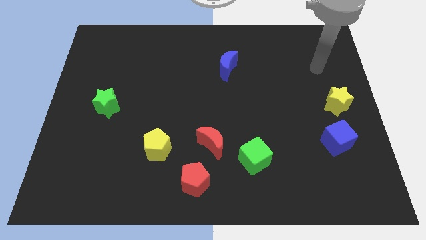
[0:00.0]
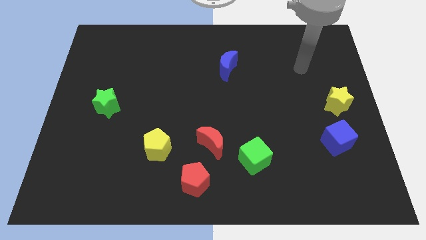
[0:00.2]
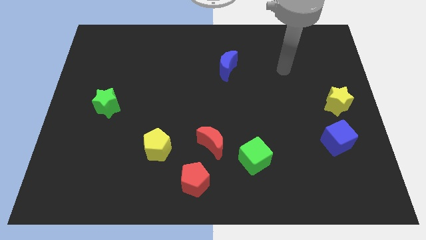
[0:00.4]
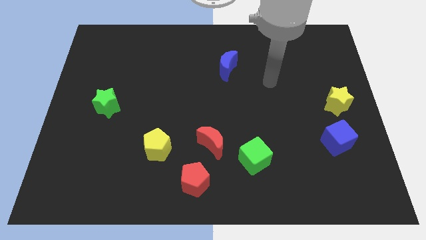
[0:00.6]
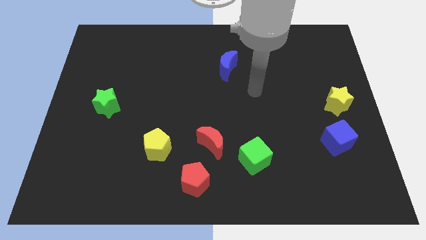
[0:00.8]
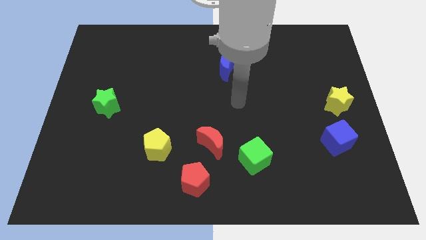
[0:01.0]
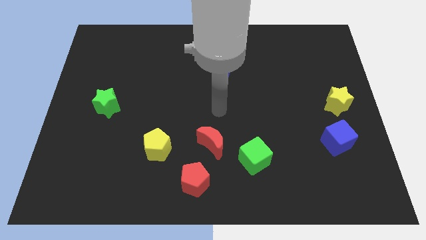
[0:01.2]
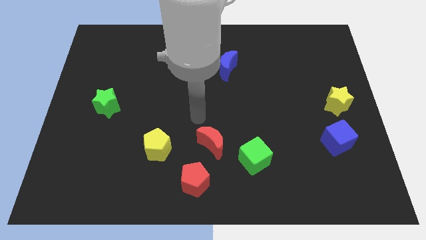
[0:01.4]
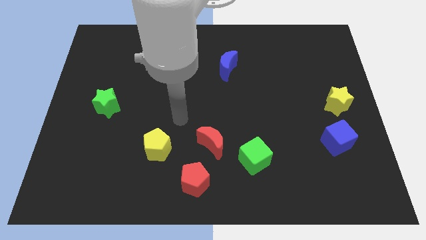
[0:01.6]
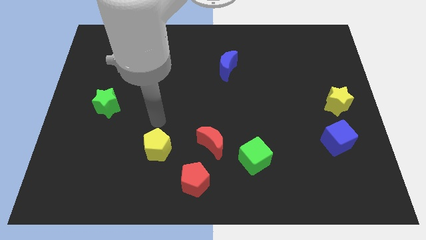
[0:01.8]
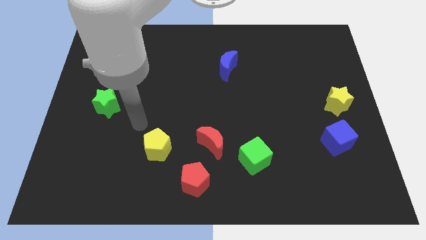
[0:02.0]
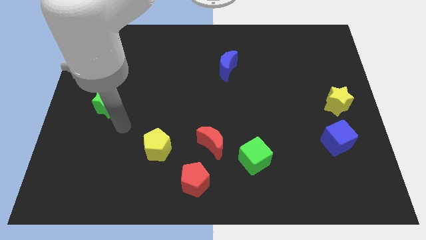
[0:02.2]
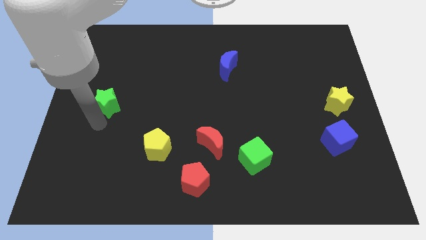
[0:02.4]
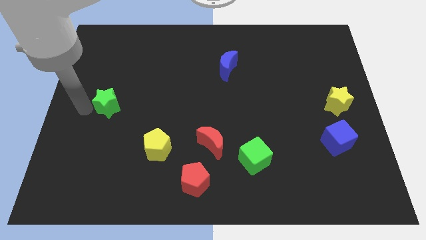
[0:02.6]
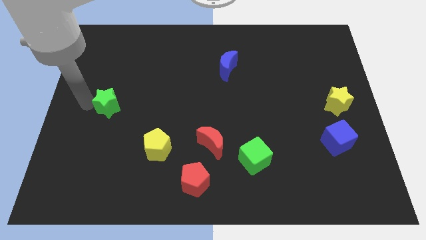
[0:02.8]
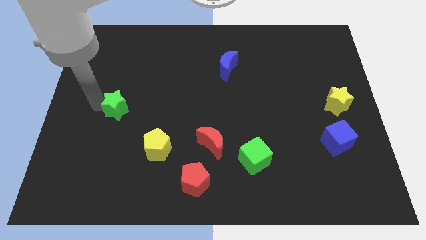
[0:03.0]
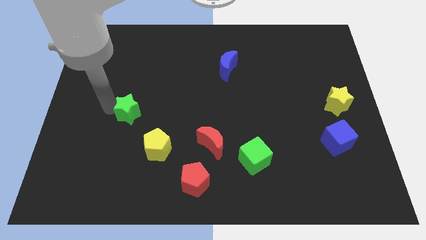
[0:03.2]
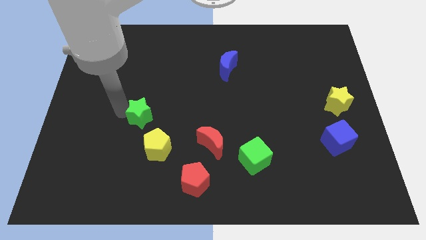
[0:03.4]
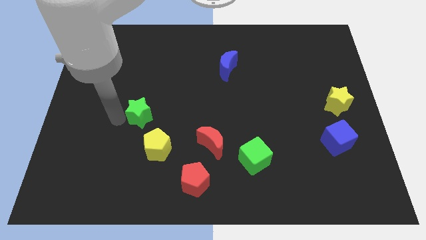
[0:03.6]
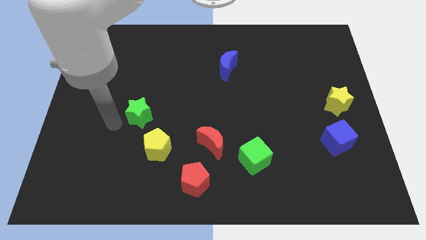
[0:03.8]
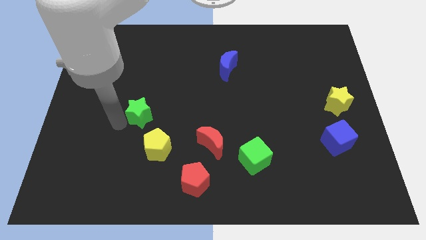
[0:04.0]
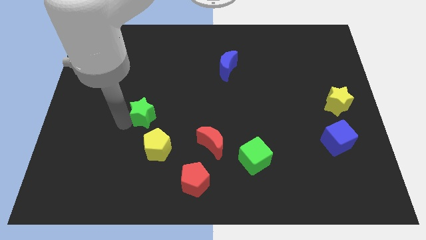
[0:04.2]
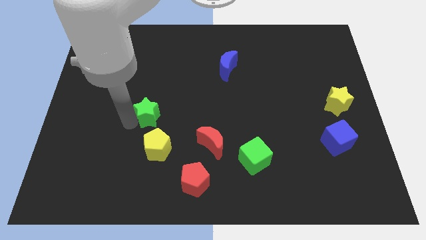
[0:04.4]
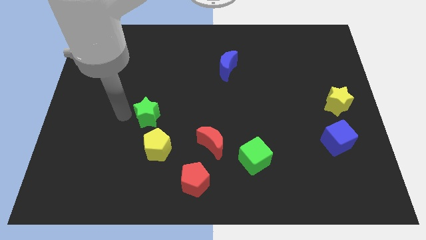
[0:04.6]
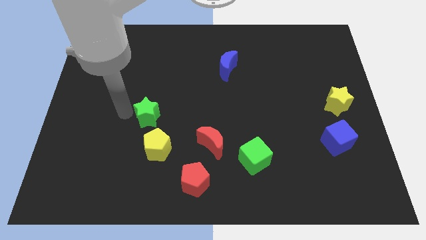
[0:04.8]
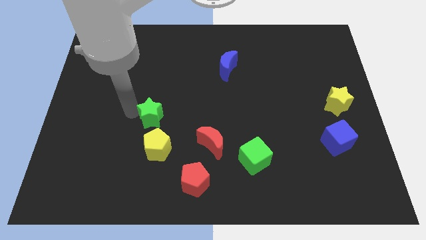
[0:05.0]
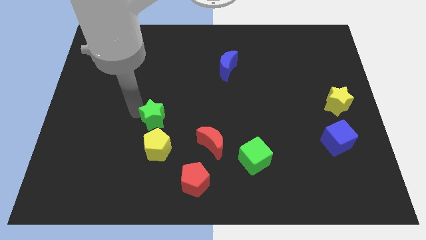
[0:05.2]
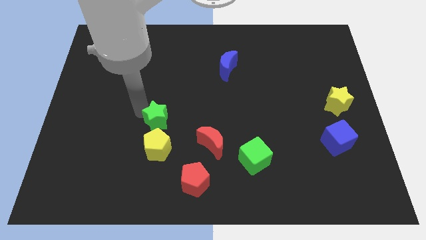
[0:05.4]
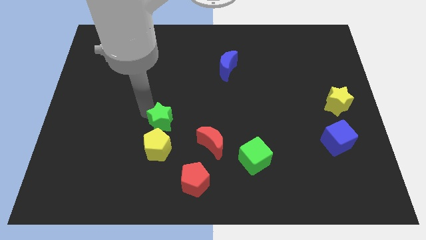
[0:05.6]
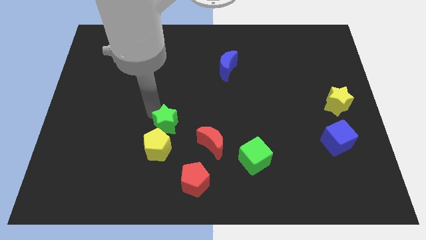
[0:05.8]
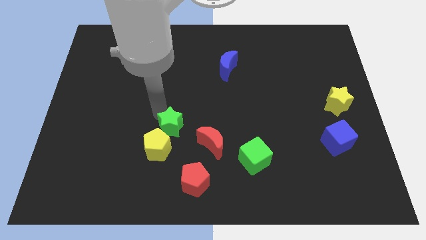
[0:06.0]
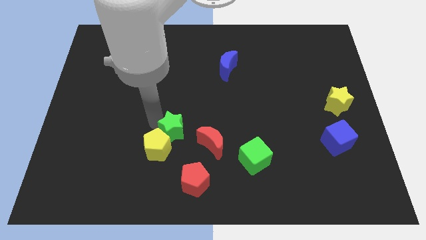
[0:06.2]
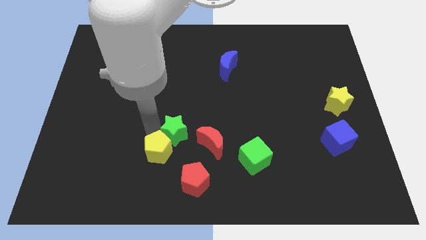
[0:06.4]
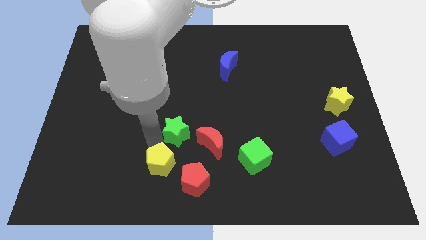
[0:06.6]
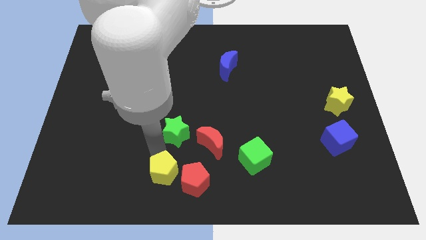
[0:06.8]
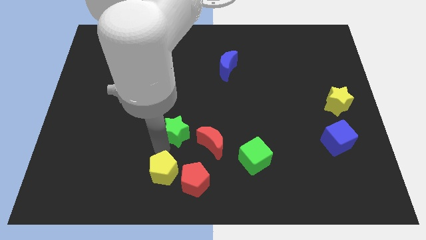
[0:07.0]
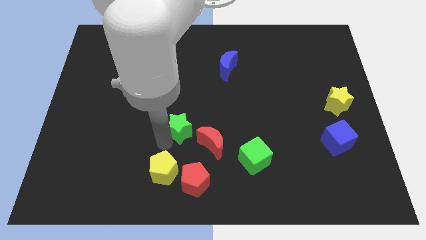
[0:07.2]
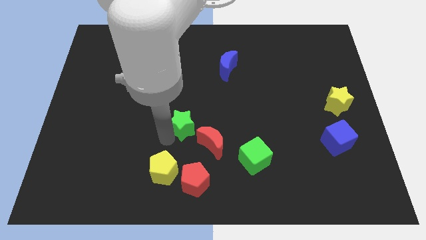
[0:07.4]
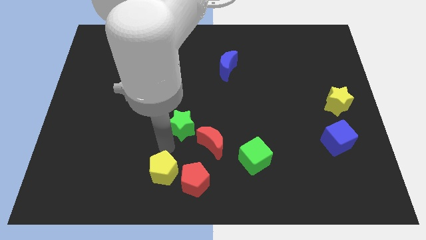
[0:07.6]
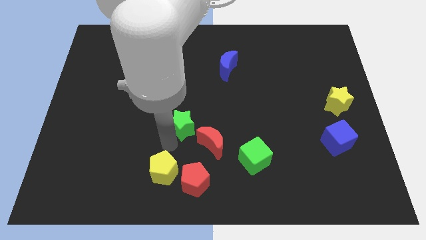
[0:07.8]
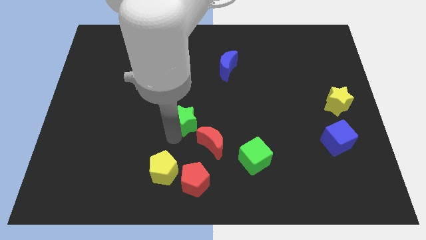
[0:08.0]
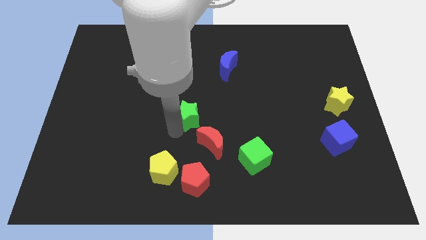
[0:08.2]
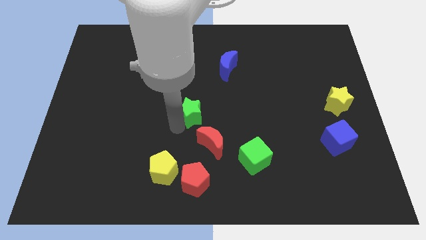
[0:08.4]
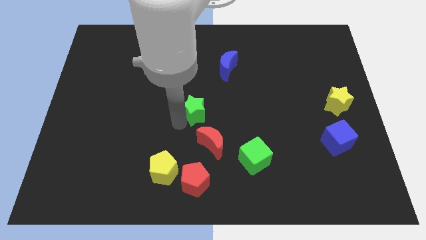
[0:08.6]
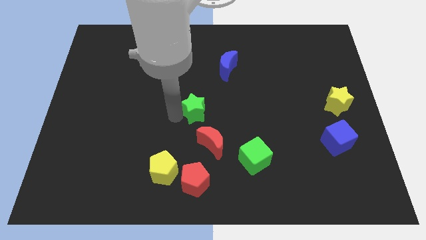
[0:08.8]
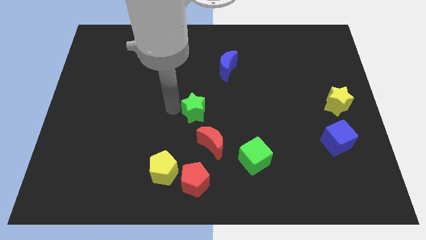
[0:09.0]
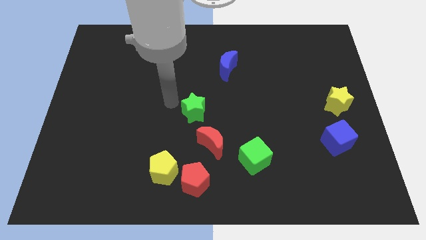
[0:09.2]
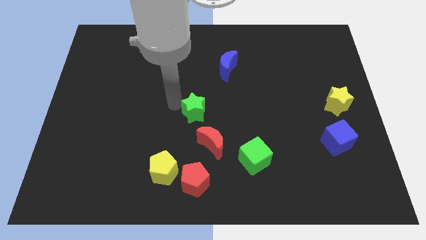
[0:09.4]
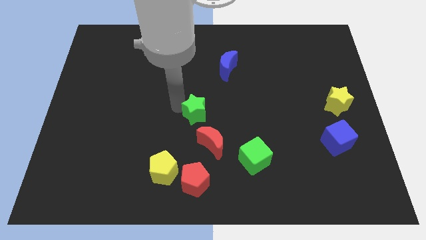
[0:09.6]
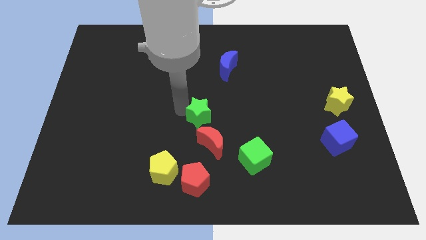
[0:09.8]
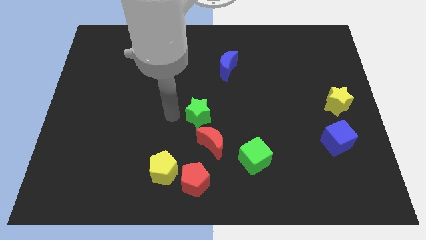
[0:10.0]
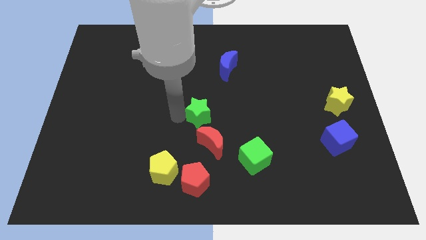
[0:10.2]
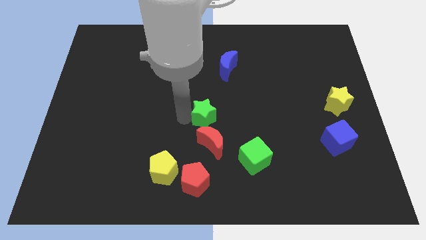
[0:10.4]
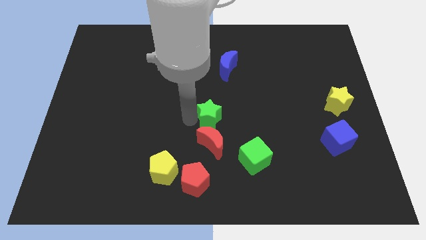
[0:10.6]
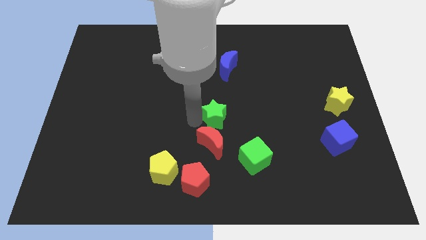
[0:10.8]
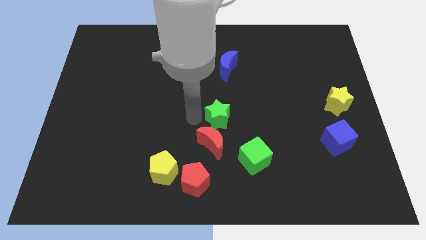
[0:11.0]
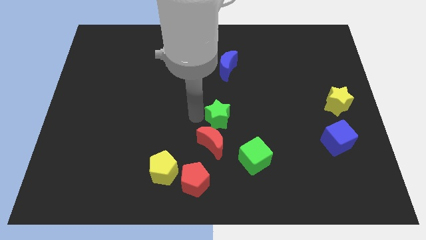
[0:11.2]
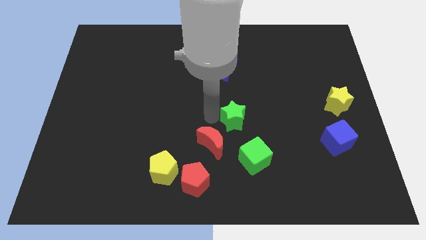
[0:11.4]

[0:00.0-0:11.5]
push the green star to the top side of the green cube

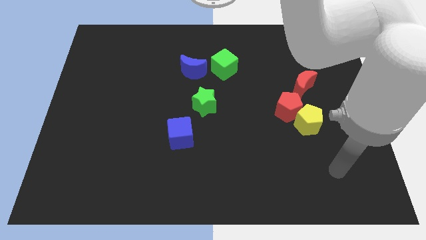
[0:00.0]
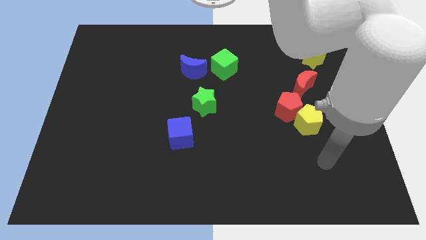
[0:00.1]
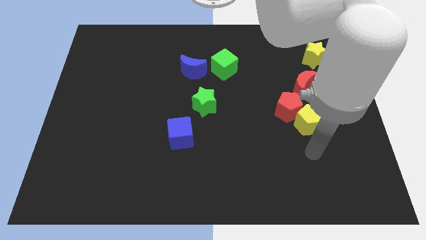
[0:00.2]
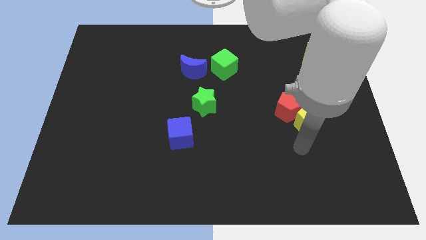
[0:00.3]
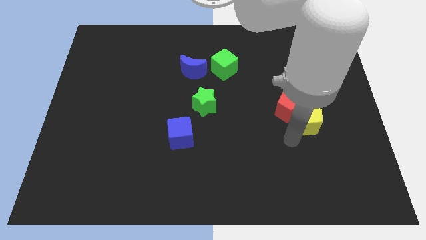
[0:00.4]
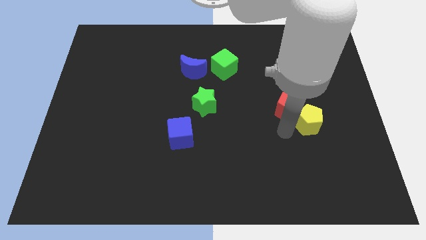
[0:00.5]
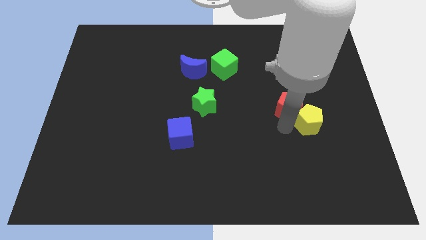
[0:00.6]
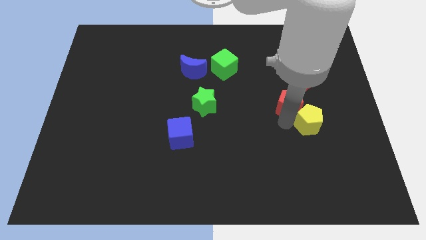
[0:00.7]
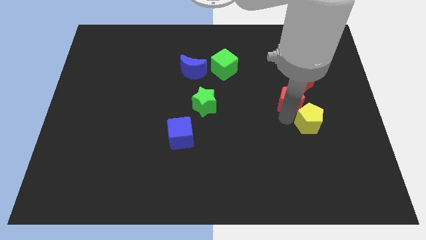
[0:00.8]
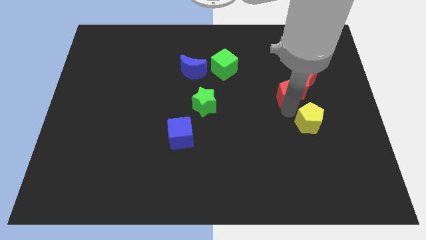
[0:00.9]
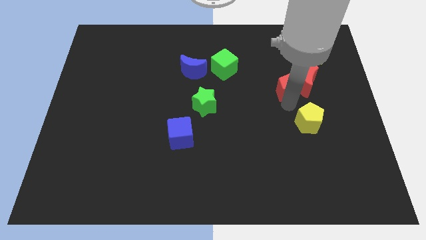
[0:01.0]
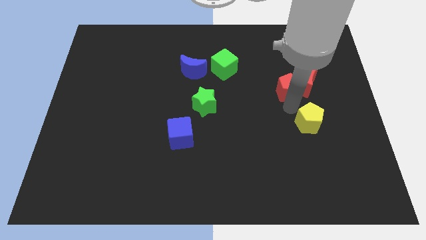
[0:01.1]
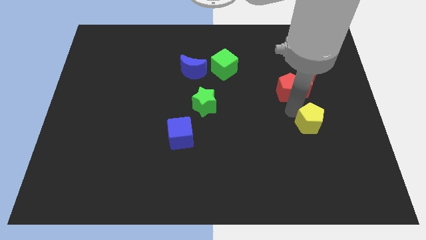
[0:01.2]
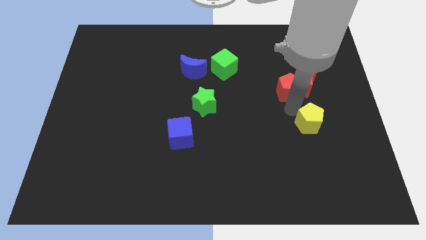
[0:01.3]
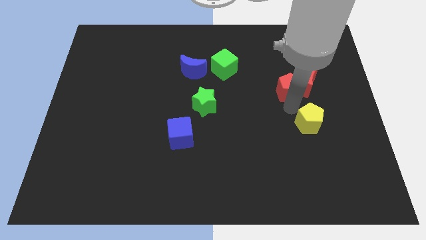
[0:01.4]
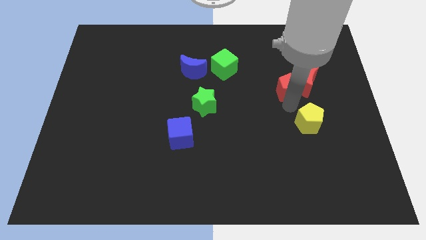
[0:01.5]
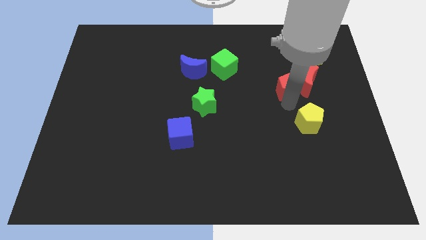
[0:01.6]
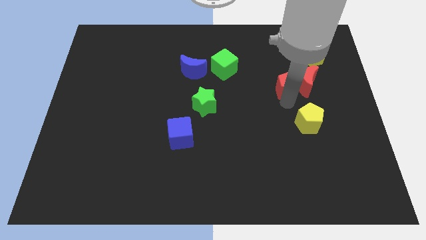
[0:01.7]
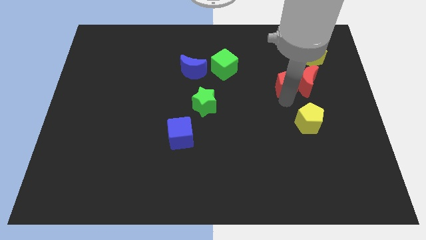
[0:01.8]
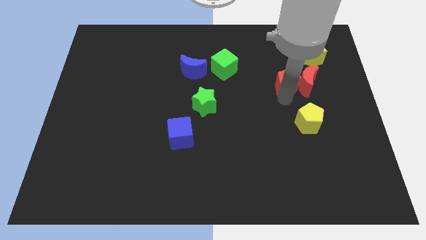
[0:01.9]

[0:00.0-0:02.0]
move the red pentagon to the bottom left of the yellow star

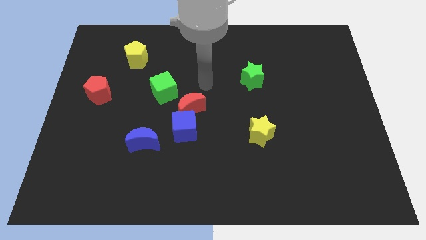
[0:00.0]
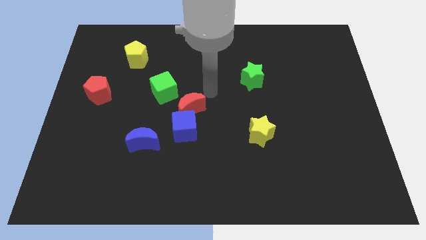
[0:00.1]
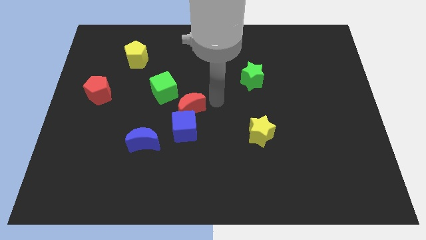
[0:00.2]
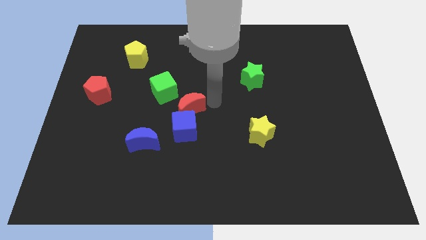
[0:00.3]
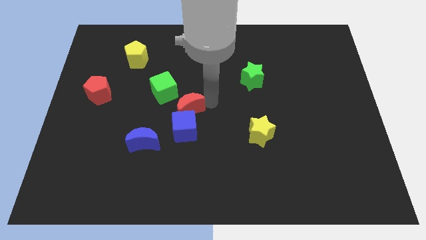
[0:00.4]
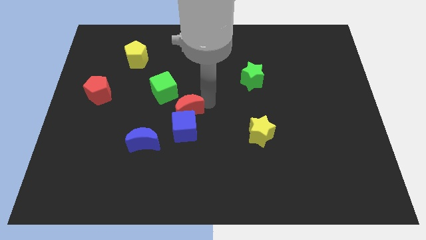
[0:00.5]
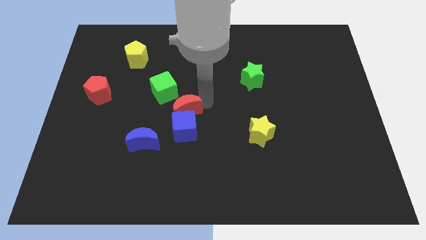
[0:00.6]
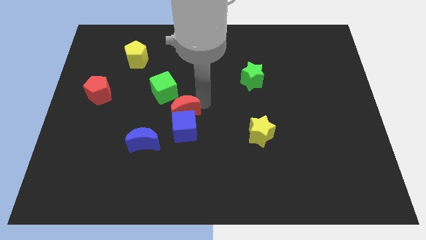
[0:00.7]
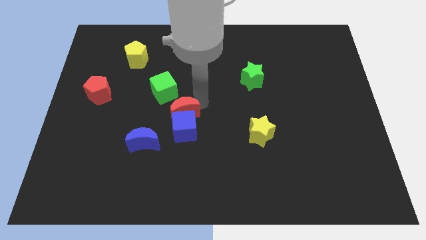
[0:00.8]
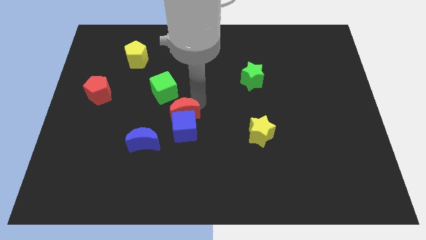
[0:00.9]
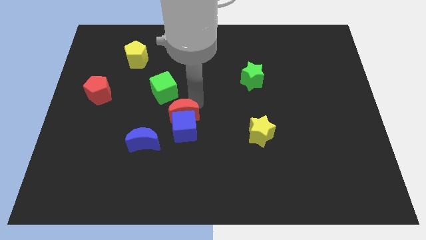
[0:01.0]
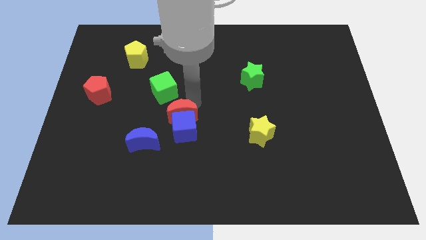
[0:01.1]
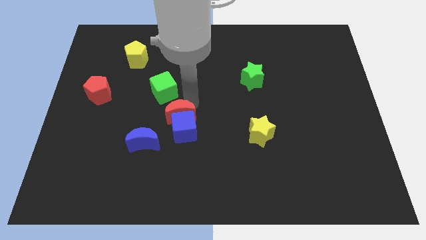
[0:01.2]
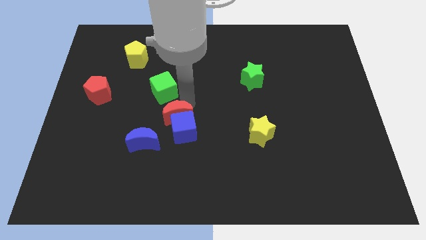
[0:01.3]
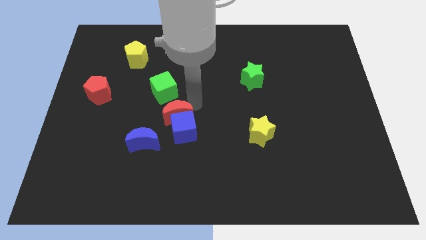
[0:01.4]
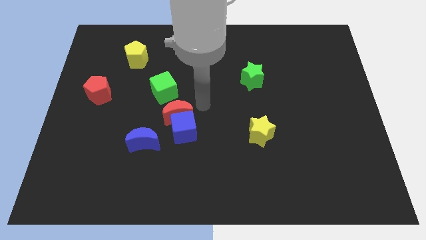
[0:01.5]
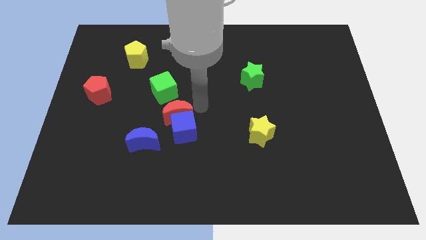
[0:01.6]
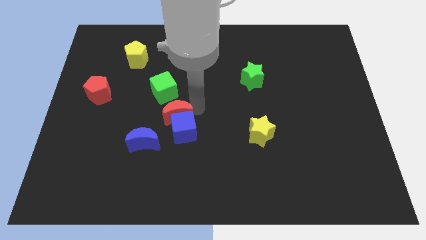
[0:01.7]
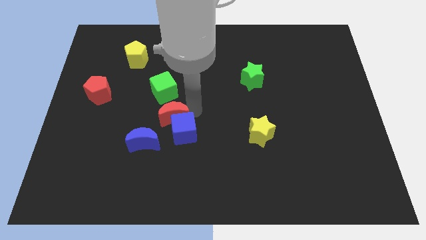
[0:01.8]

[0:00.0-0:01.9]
push the red moon to the left of the blue cube
